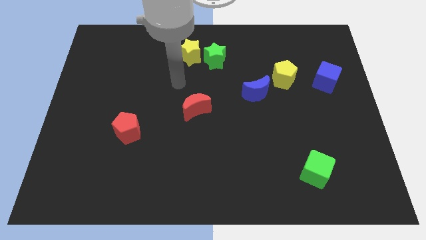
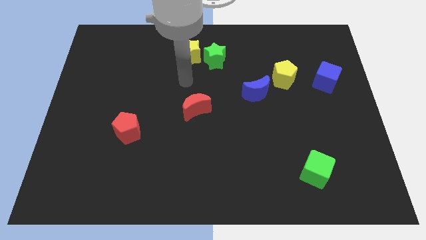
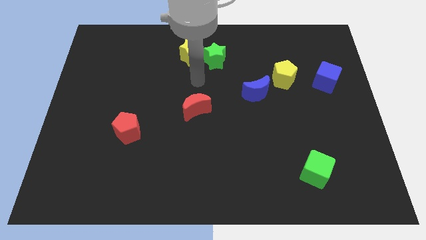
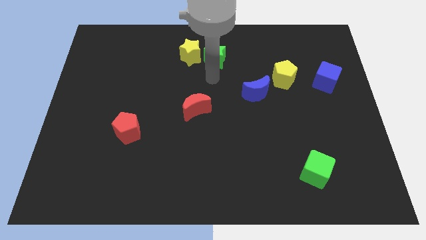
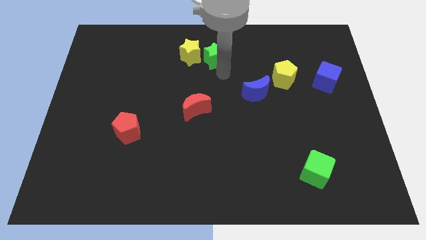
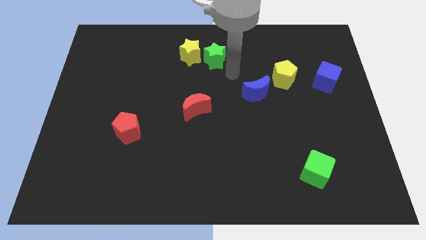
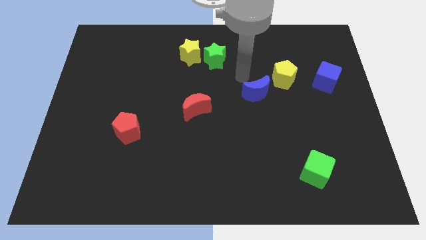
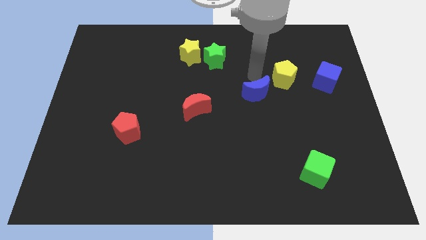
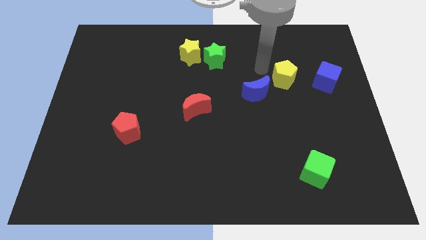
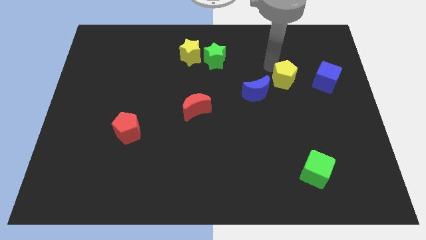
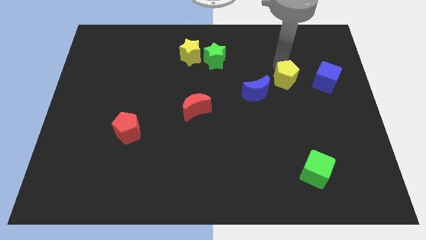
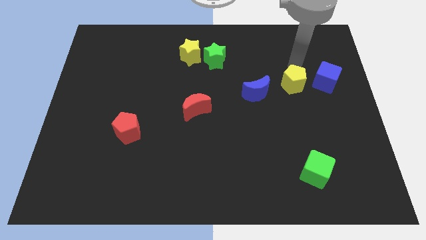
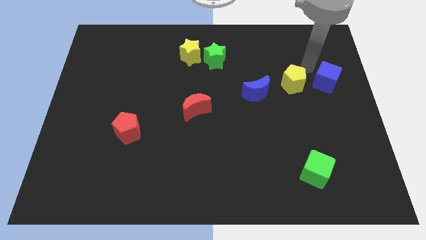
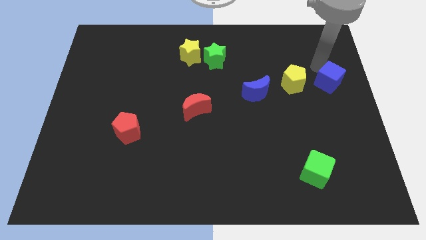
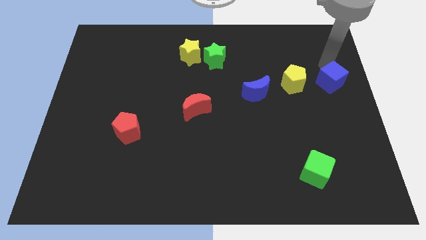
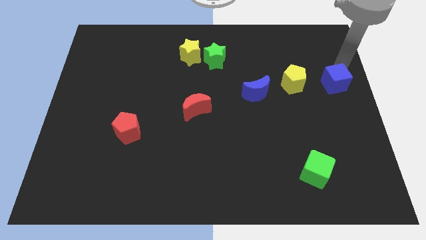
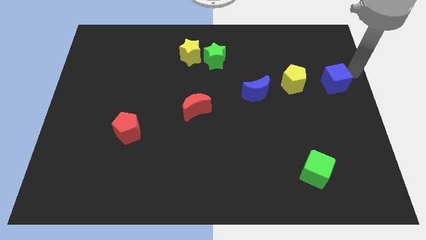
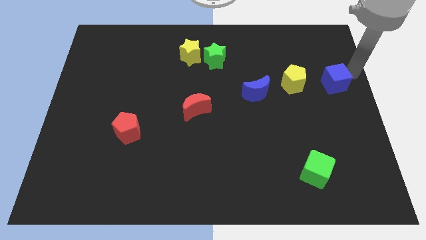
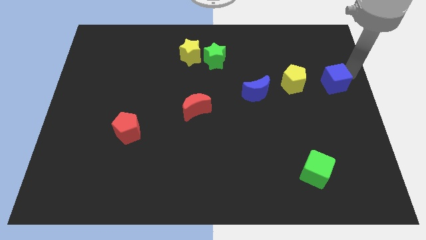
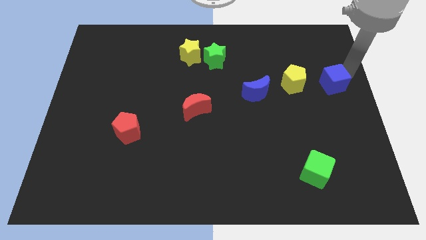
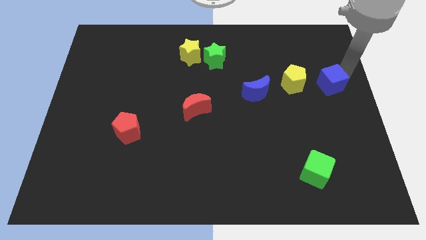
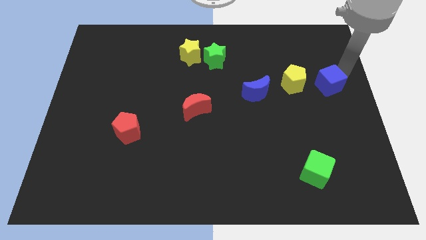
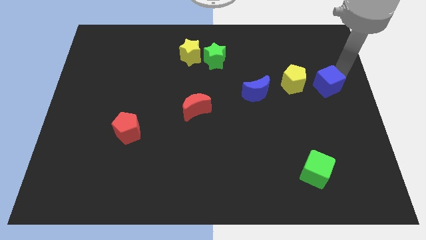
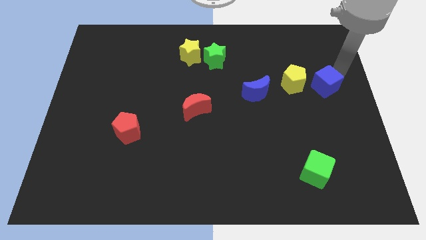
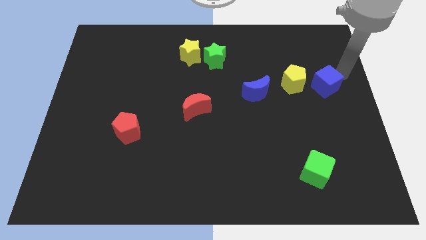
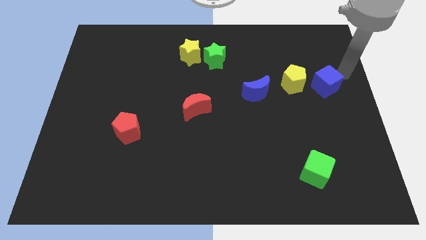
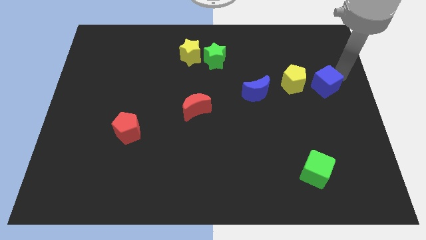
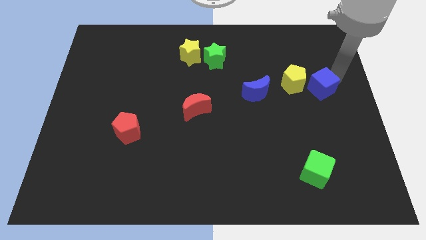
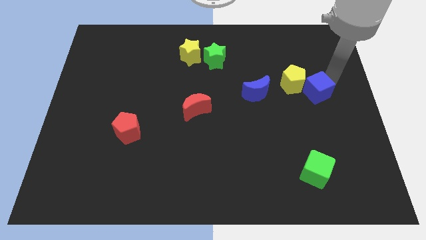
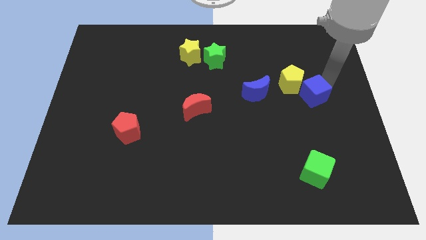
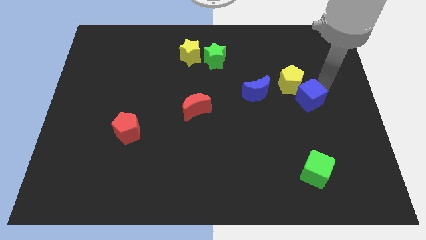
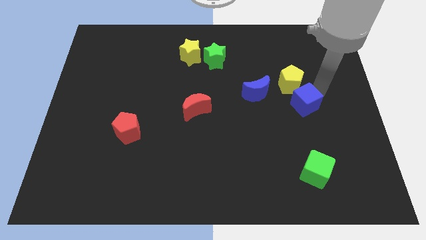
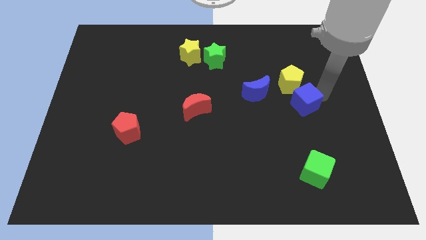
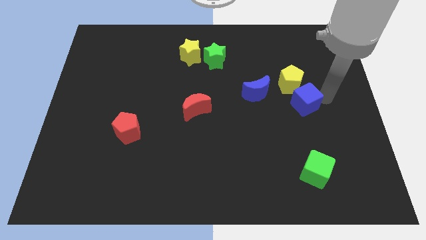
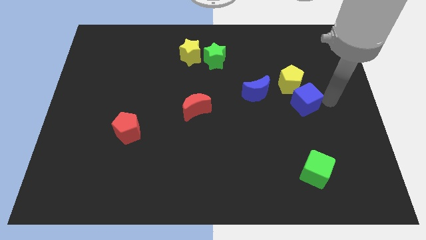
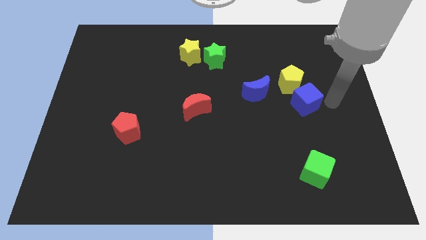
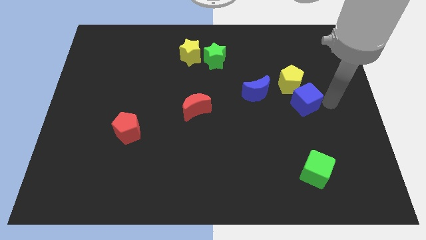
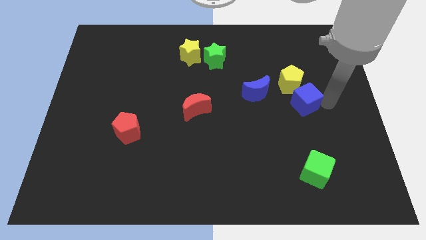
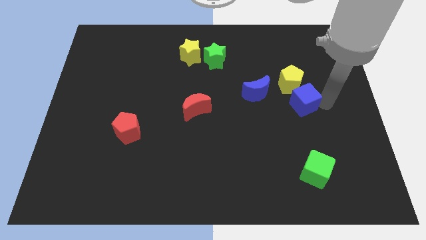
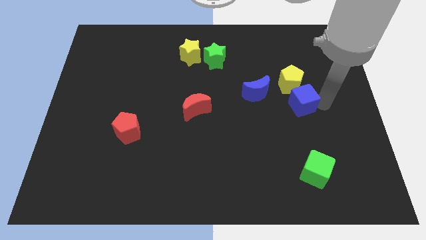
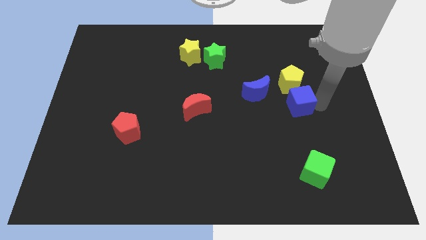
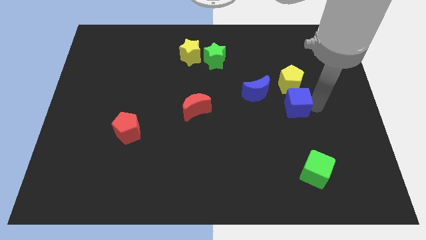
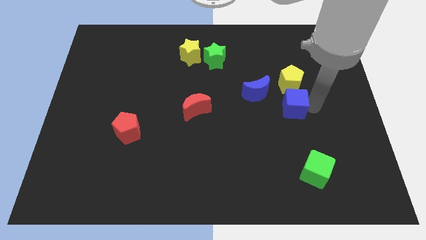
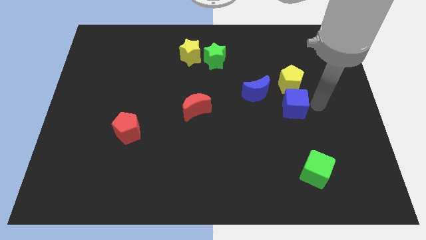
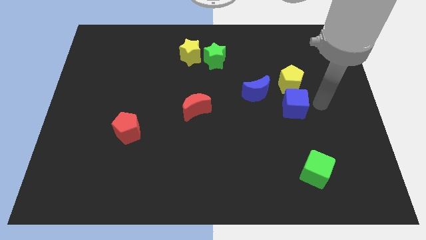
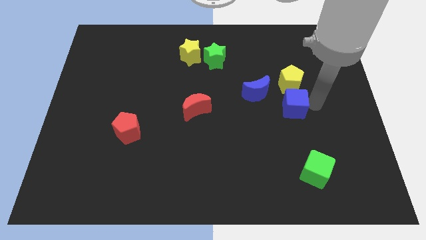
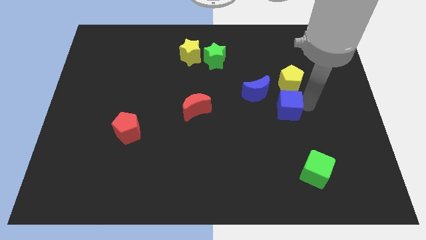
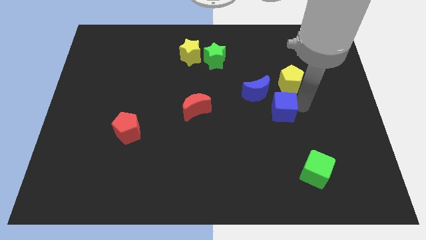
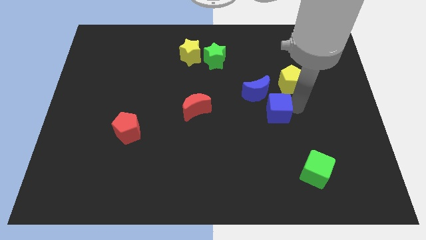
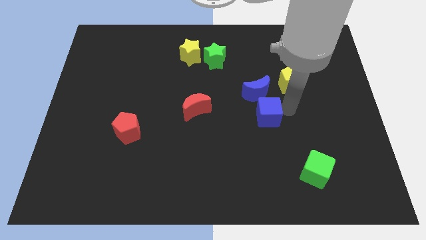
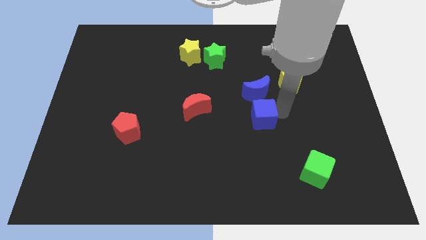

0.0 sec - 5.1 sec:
push the blue cube just right of the red moon

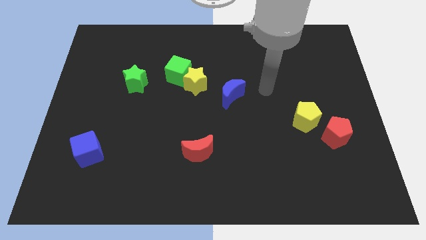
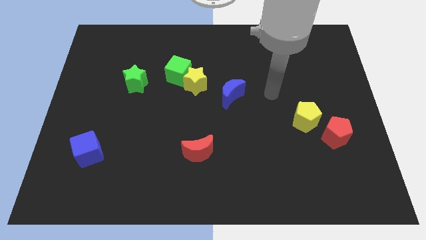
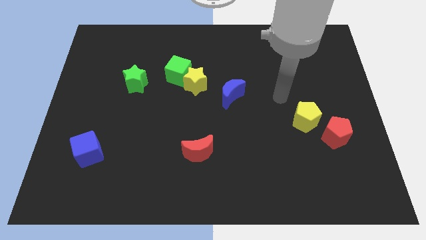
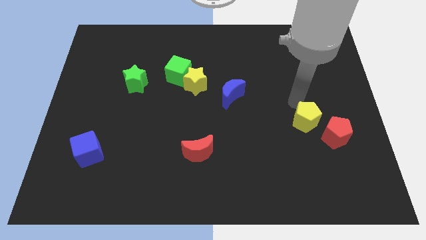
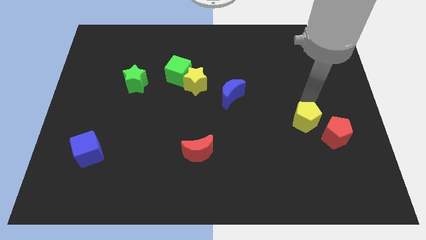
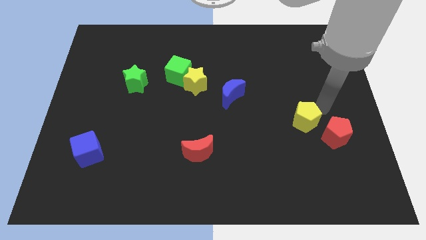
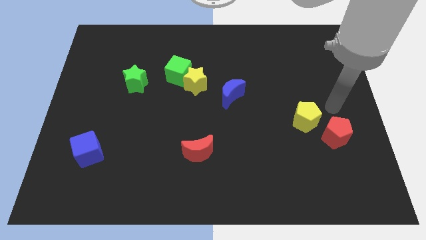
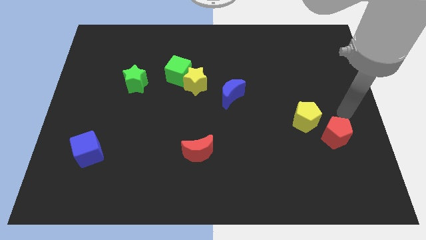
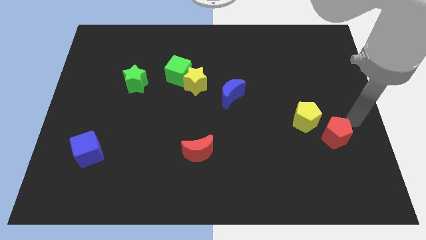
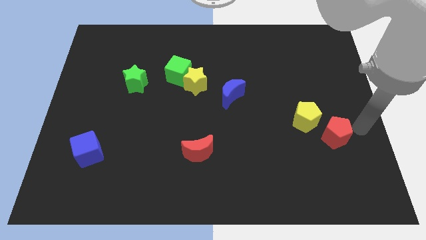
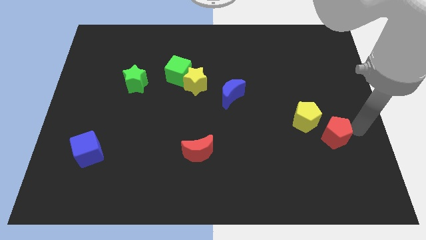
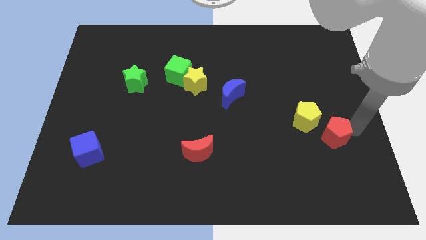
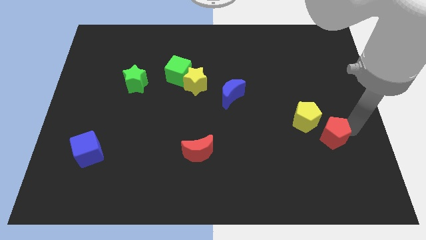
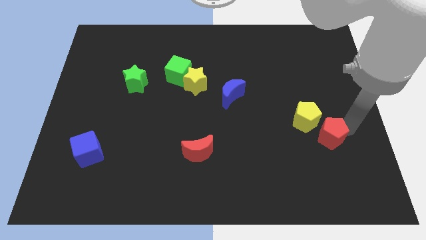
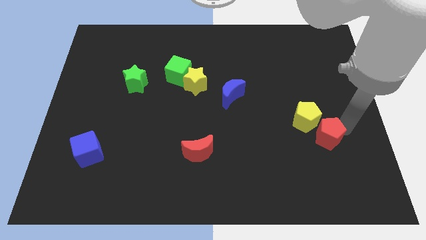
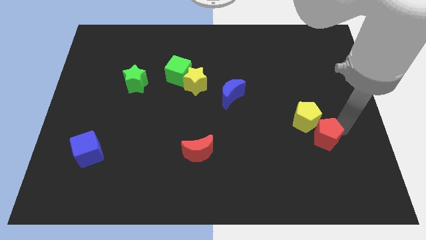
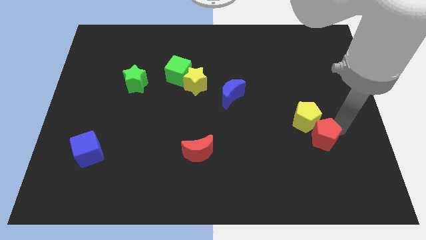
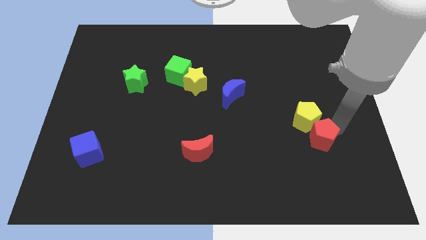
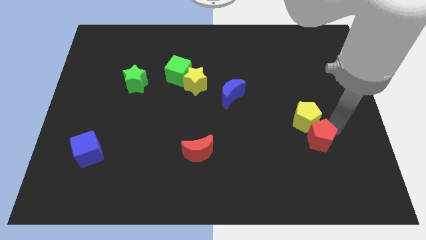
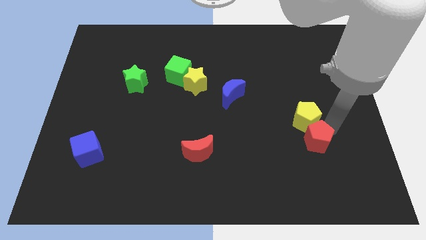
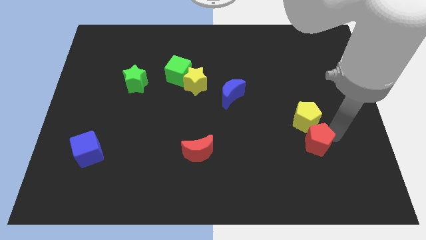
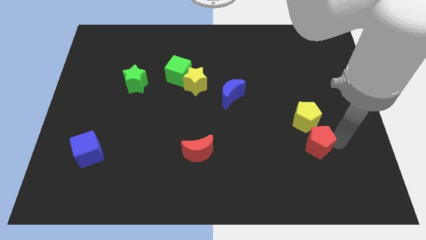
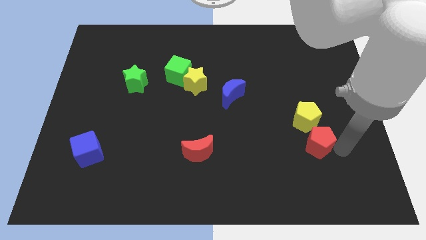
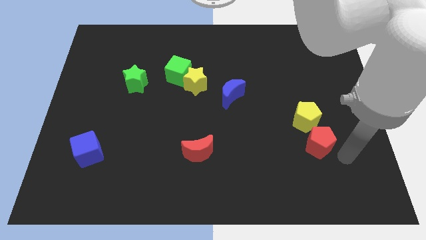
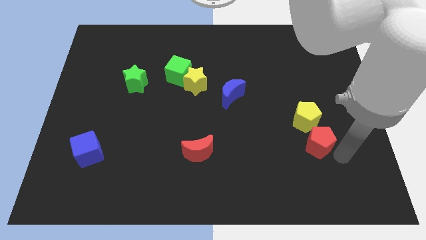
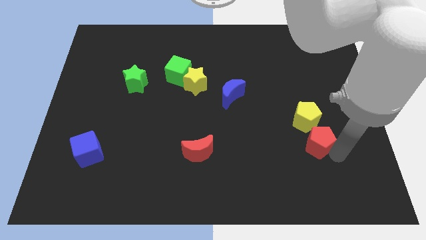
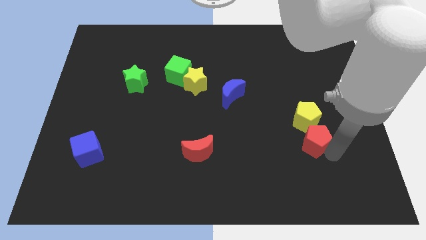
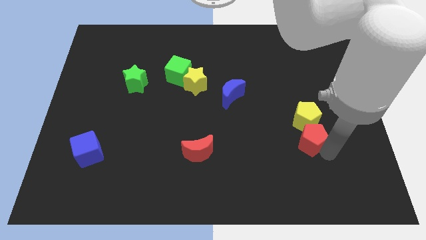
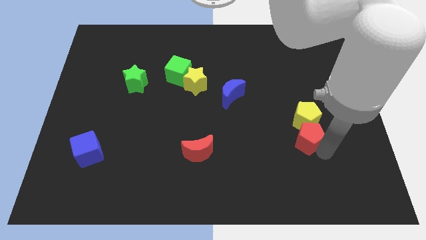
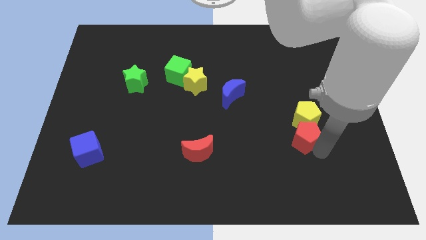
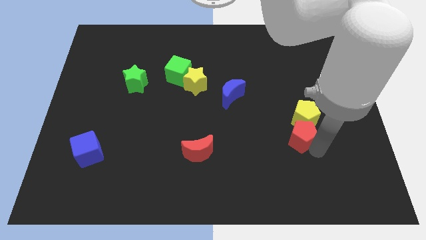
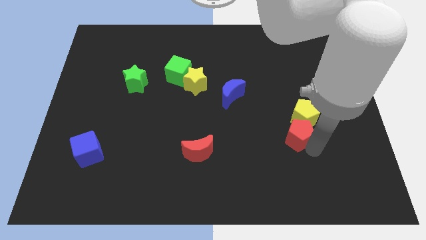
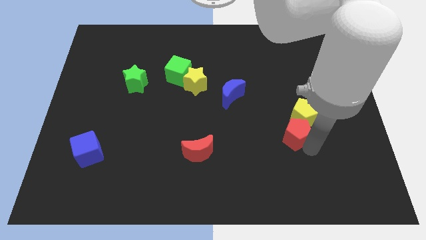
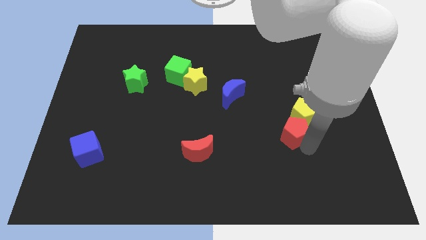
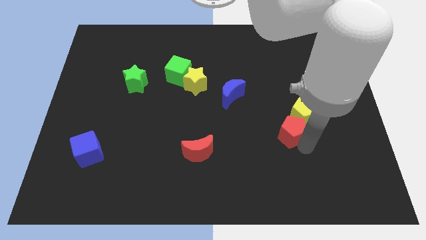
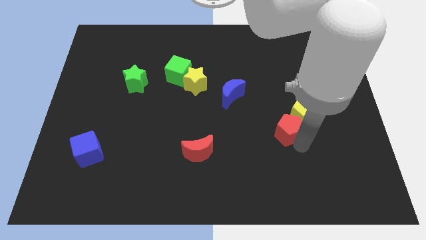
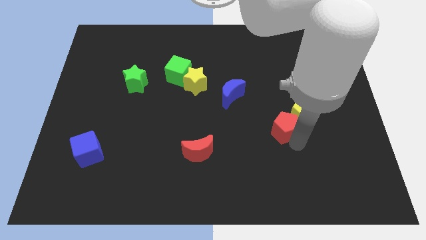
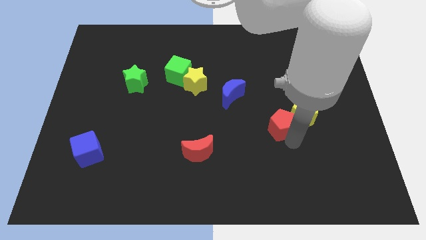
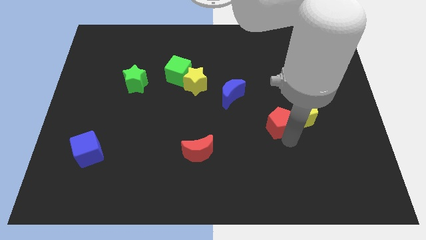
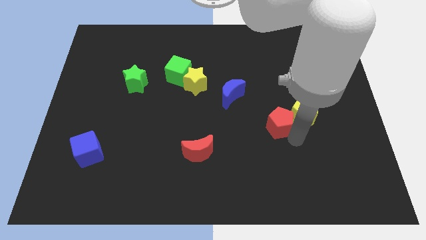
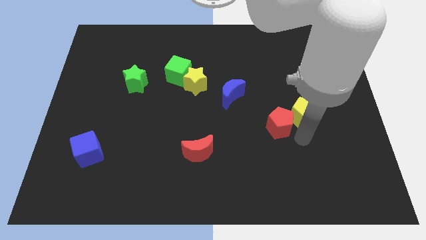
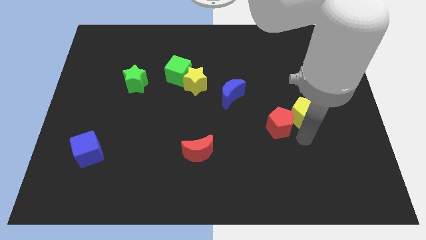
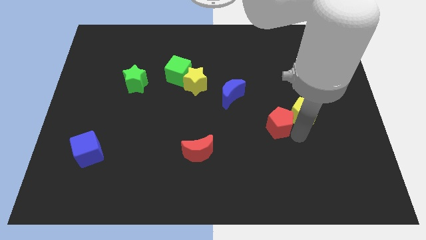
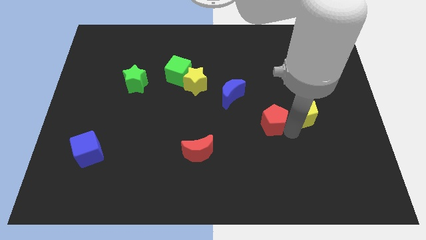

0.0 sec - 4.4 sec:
put the red pentagon to the bottom right of the blue moon
